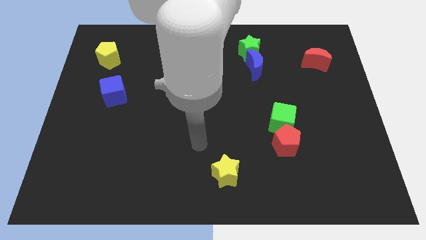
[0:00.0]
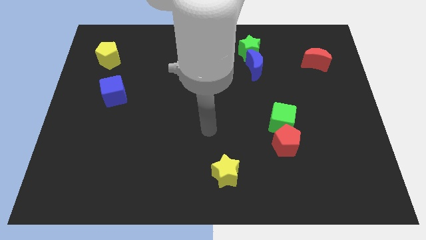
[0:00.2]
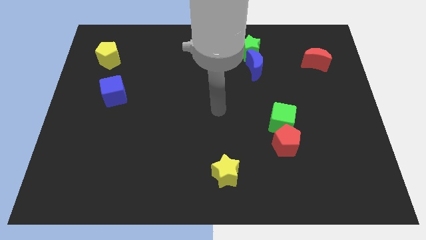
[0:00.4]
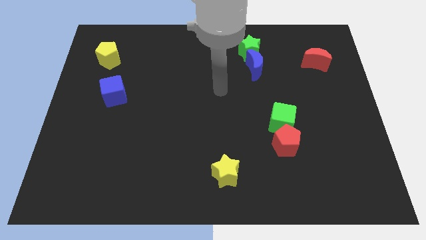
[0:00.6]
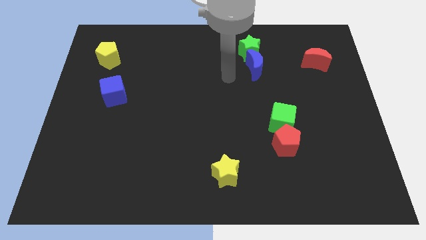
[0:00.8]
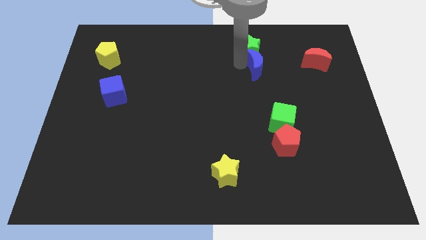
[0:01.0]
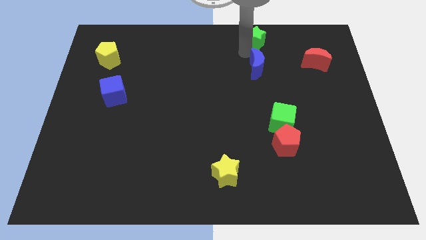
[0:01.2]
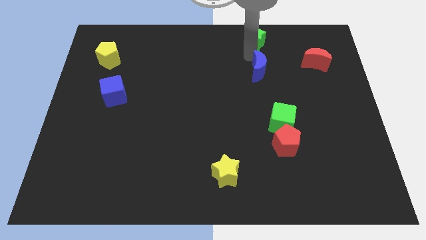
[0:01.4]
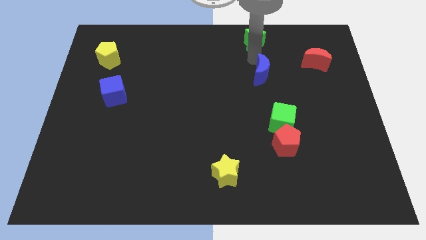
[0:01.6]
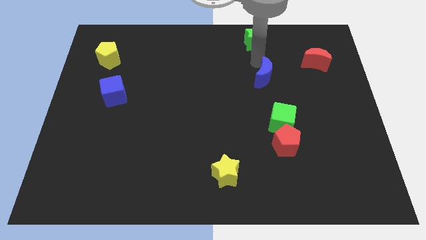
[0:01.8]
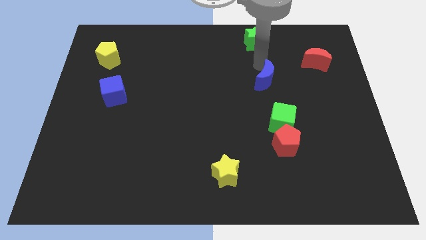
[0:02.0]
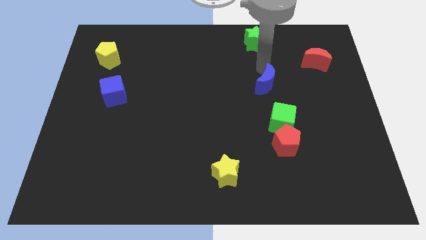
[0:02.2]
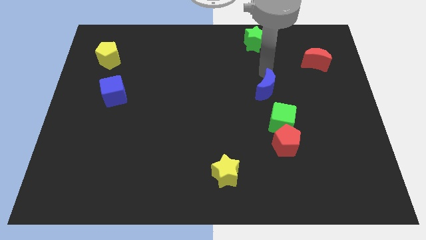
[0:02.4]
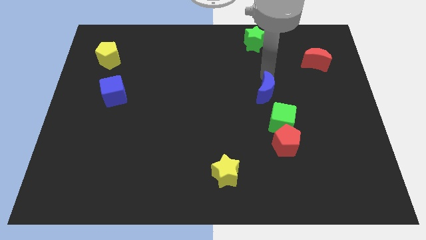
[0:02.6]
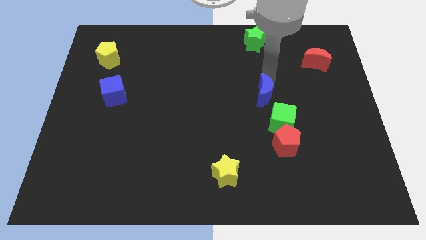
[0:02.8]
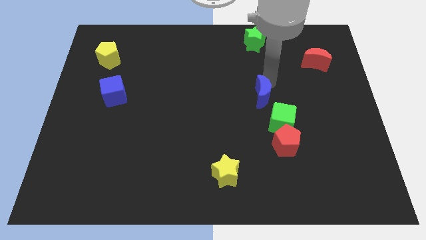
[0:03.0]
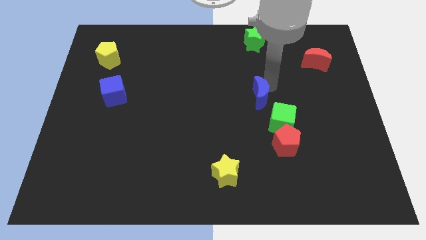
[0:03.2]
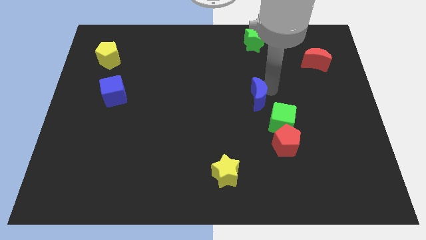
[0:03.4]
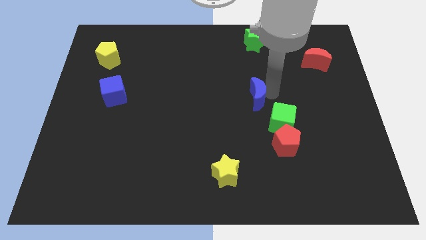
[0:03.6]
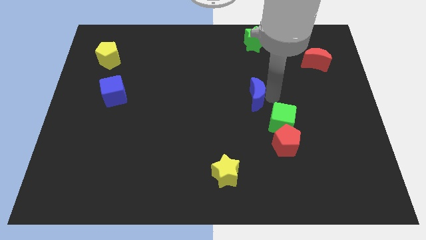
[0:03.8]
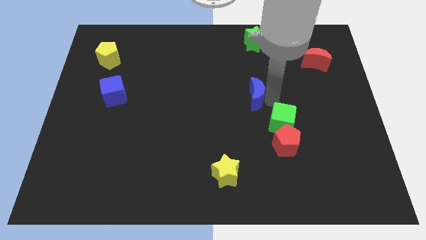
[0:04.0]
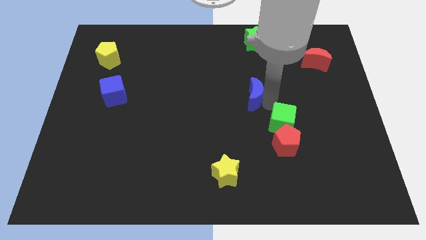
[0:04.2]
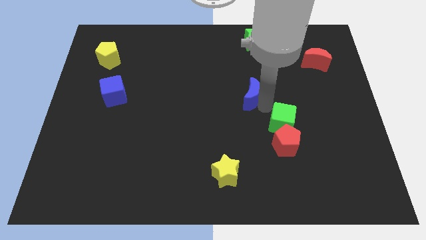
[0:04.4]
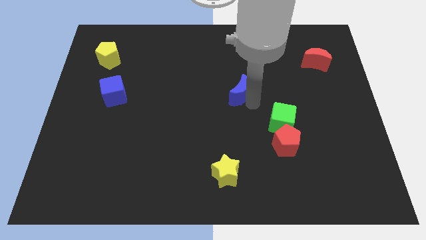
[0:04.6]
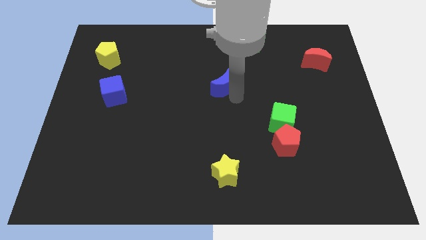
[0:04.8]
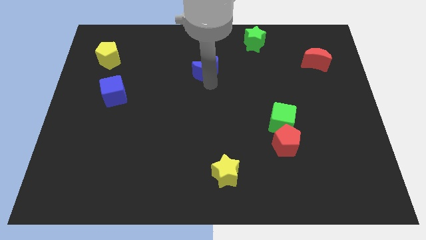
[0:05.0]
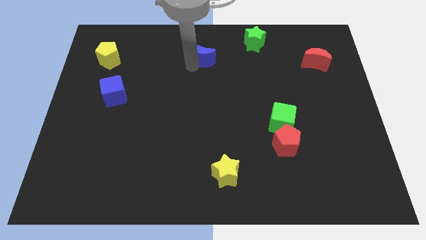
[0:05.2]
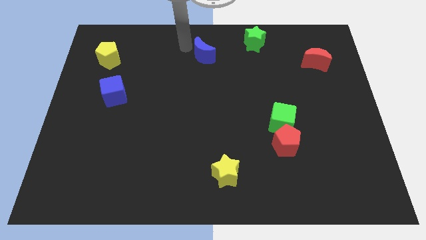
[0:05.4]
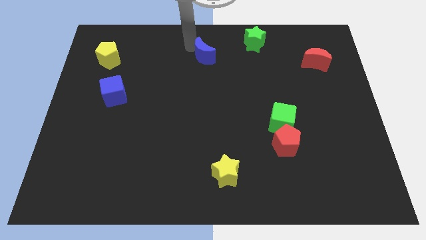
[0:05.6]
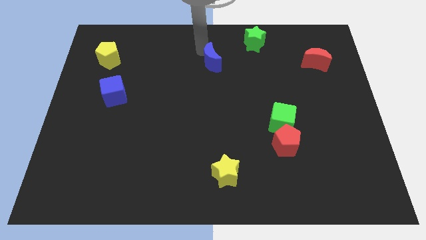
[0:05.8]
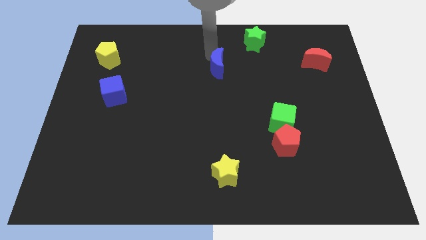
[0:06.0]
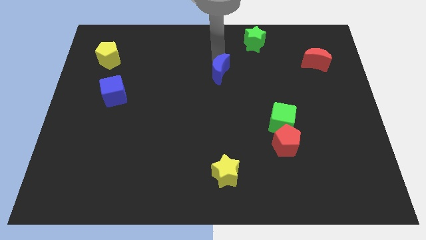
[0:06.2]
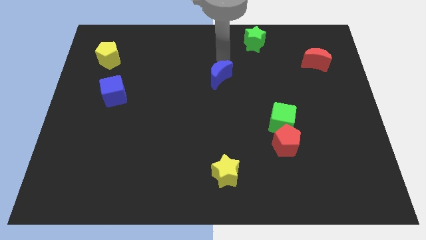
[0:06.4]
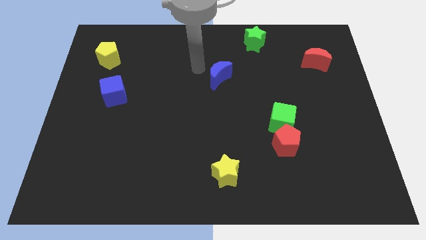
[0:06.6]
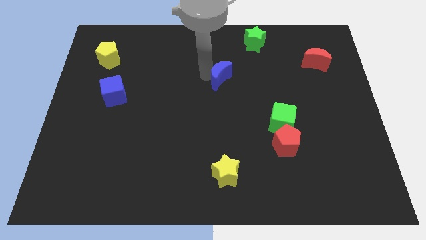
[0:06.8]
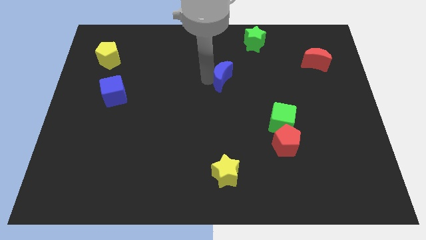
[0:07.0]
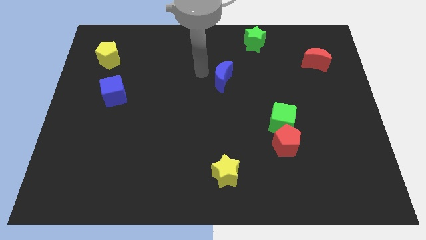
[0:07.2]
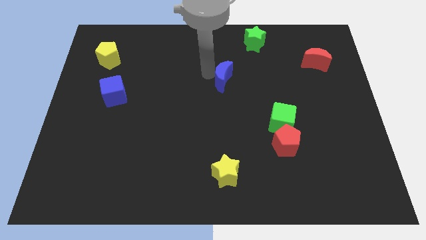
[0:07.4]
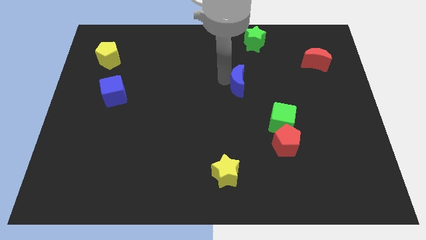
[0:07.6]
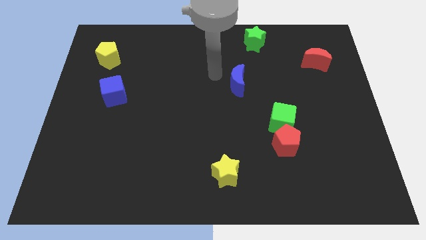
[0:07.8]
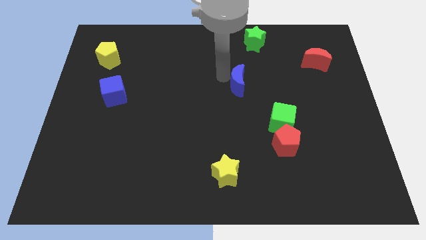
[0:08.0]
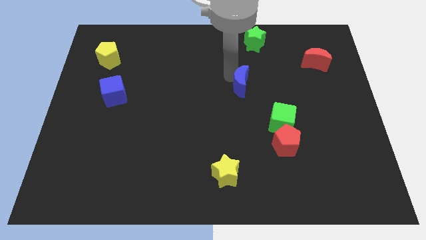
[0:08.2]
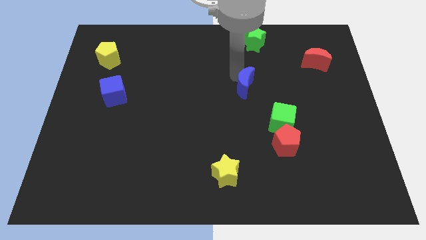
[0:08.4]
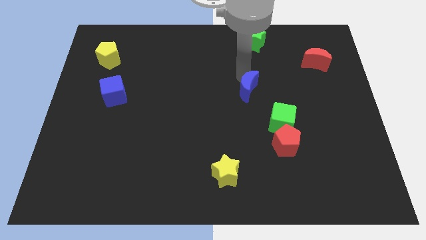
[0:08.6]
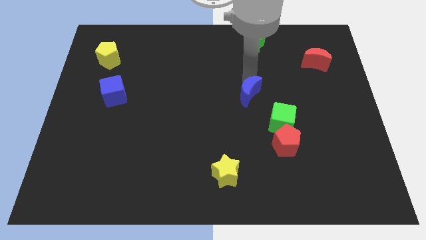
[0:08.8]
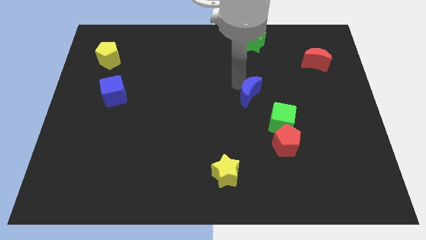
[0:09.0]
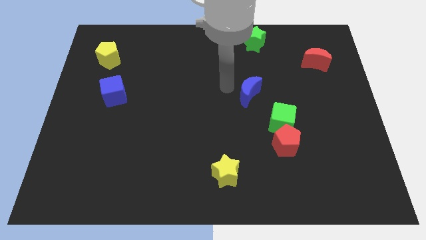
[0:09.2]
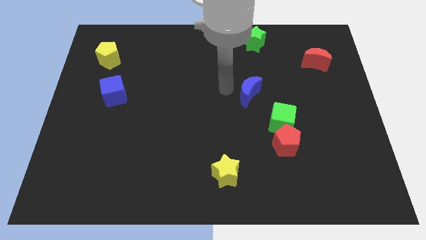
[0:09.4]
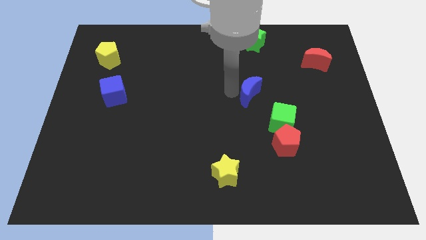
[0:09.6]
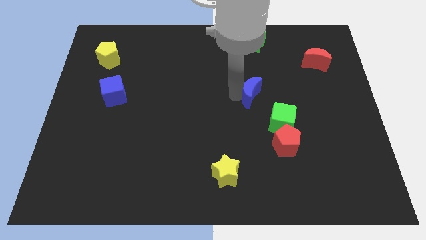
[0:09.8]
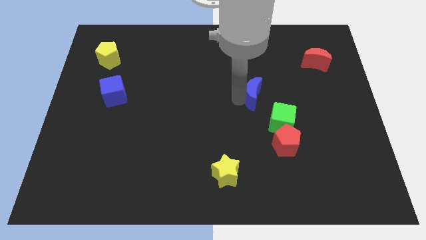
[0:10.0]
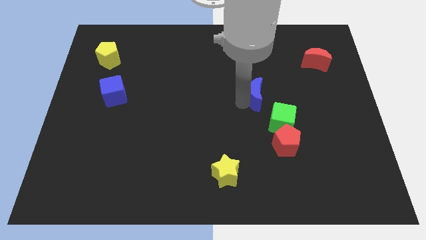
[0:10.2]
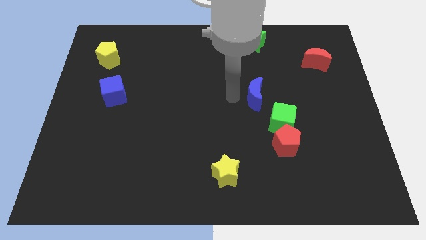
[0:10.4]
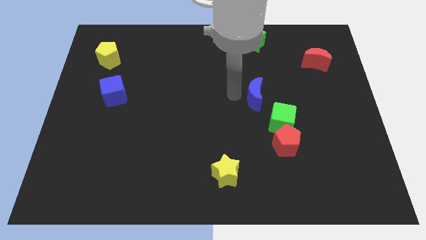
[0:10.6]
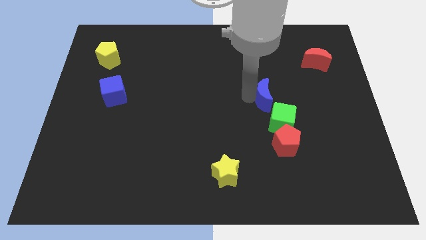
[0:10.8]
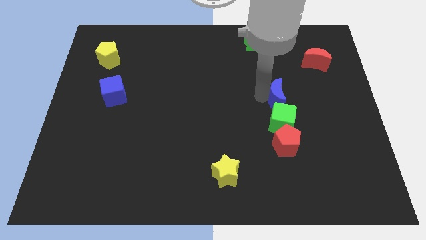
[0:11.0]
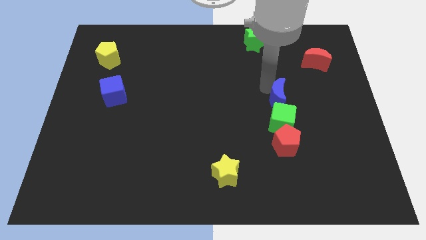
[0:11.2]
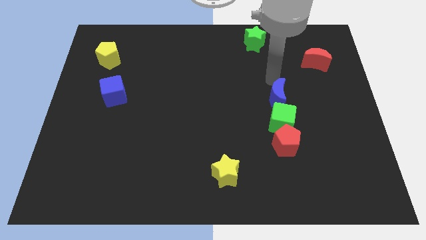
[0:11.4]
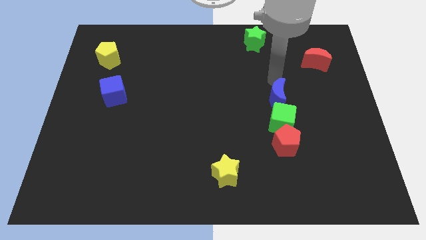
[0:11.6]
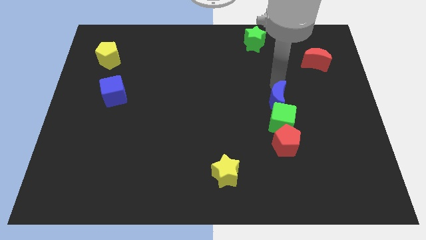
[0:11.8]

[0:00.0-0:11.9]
slide the blue moon towards the green cube
